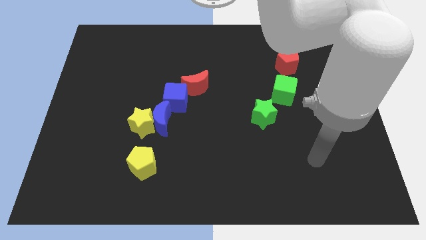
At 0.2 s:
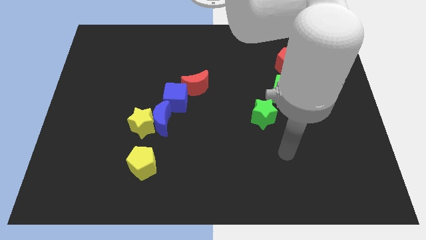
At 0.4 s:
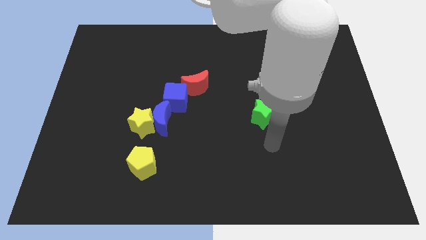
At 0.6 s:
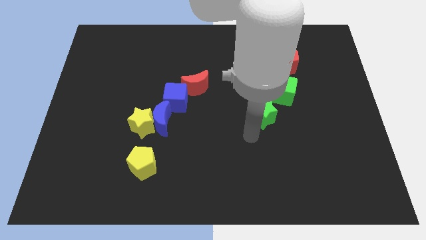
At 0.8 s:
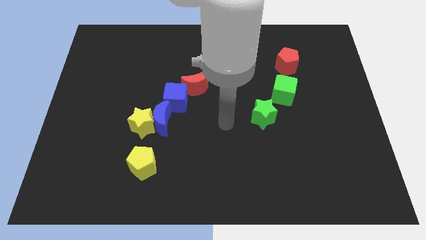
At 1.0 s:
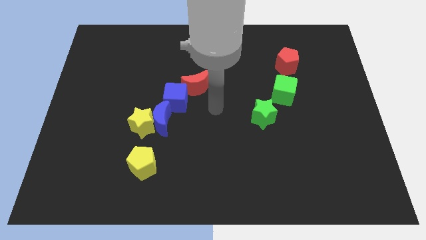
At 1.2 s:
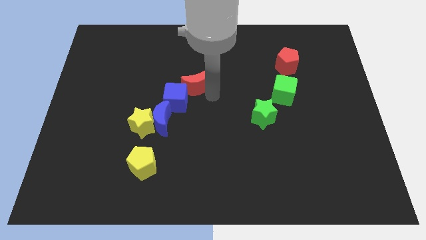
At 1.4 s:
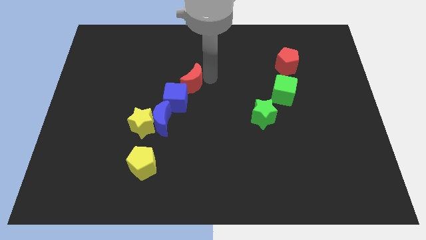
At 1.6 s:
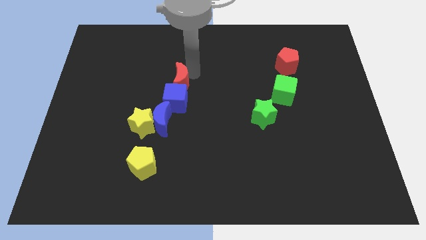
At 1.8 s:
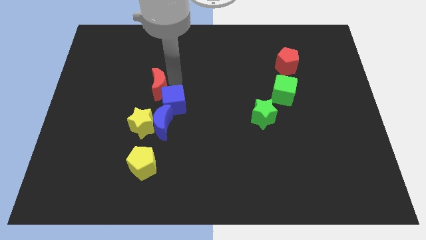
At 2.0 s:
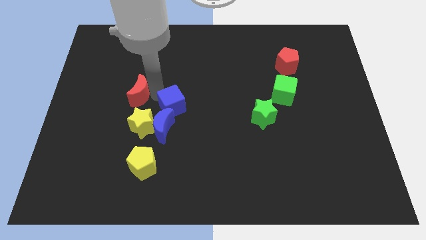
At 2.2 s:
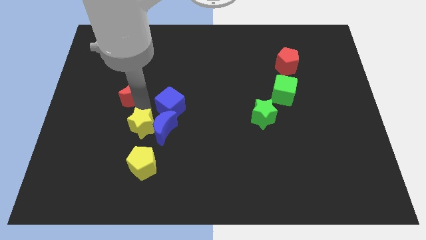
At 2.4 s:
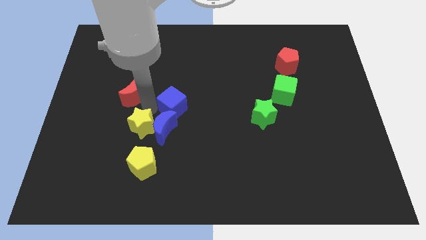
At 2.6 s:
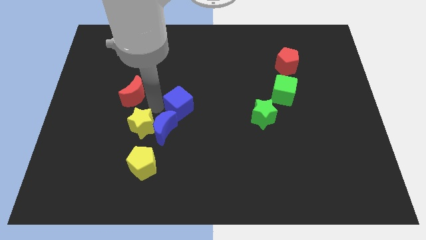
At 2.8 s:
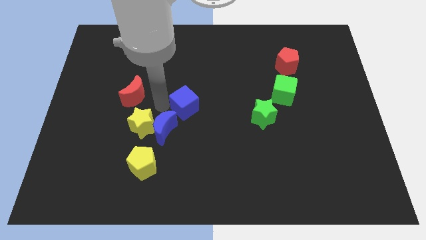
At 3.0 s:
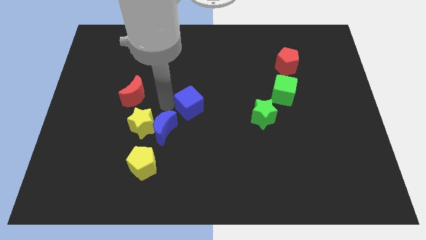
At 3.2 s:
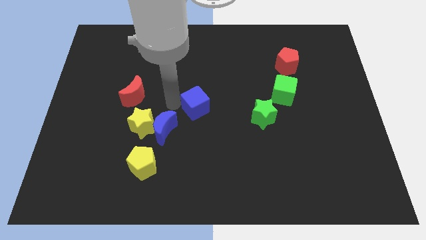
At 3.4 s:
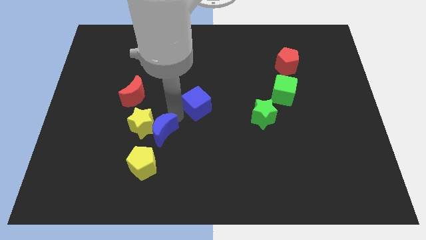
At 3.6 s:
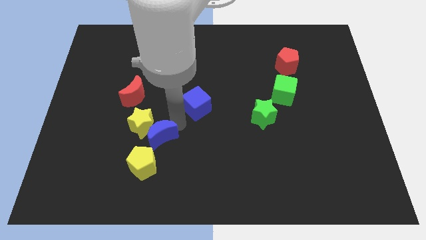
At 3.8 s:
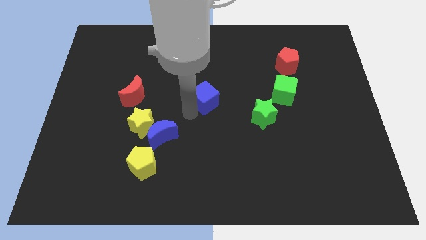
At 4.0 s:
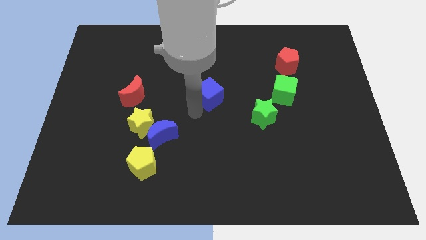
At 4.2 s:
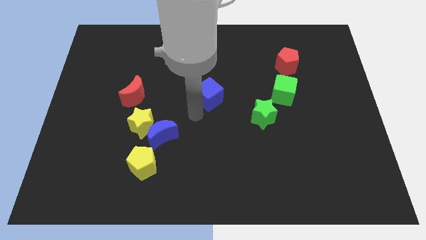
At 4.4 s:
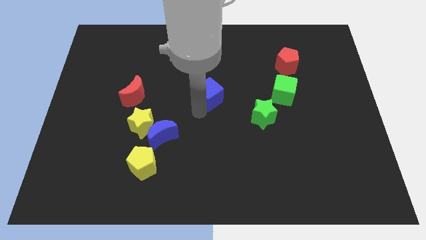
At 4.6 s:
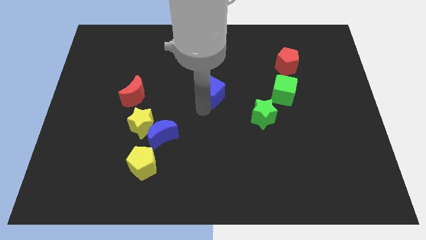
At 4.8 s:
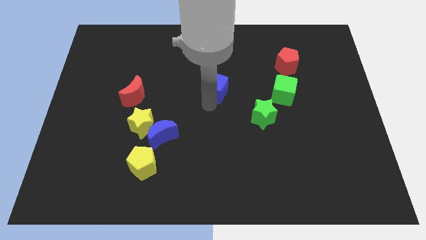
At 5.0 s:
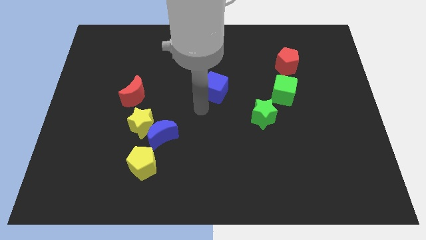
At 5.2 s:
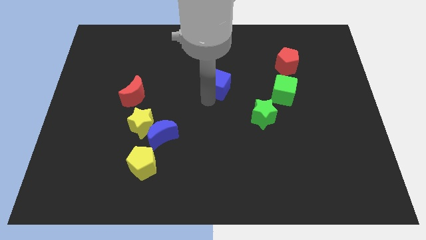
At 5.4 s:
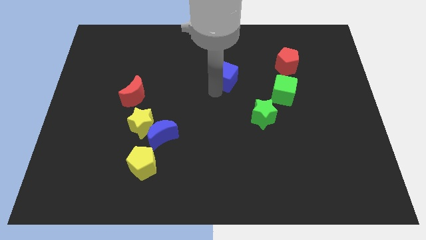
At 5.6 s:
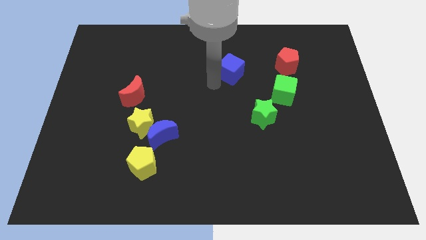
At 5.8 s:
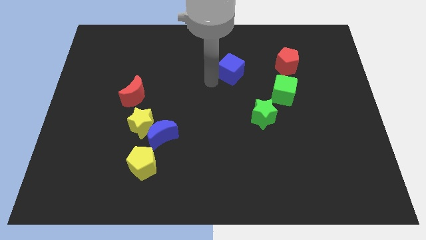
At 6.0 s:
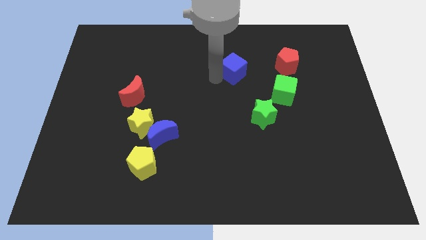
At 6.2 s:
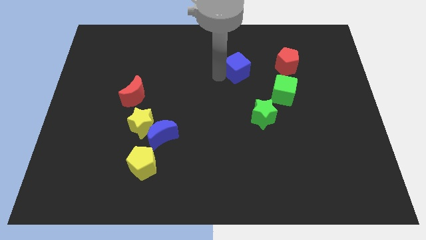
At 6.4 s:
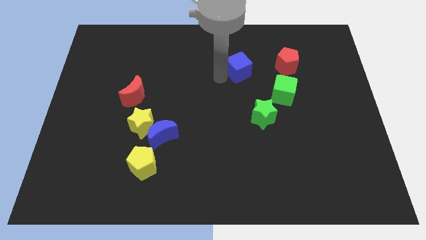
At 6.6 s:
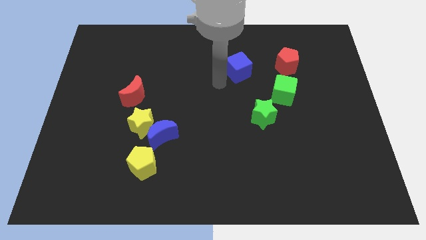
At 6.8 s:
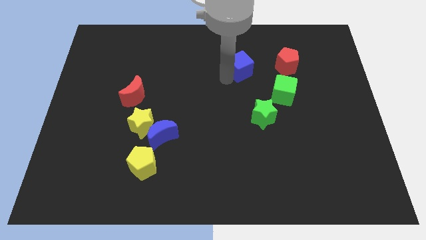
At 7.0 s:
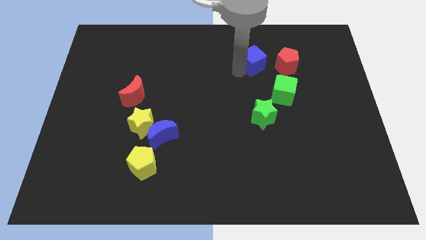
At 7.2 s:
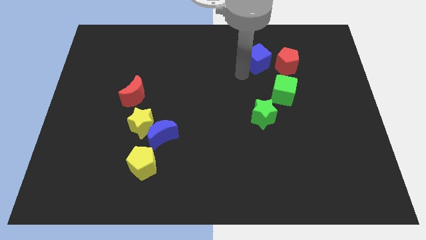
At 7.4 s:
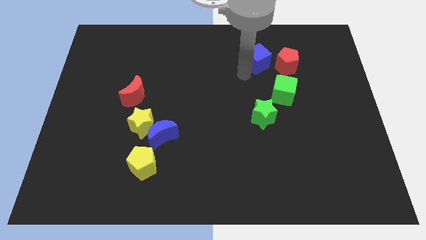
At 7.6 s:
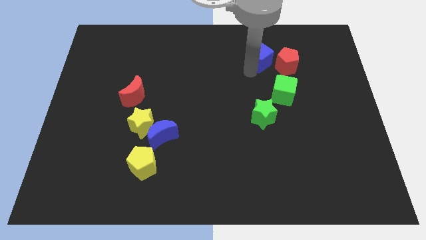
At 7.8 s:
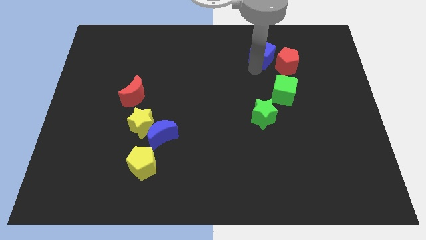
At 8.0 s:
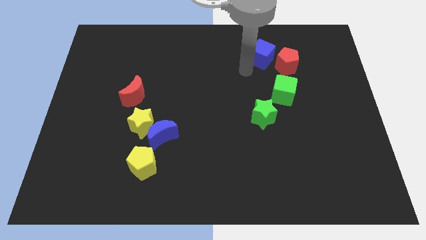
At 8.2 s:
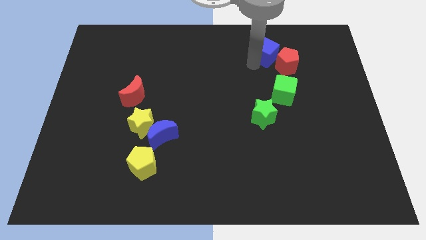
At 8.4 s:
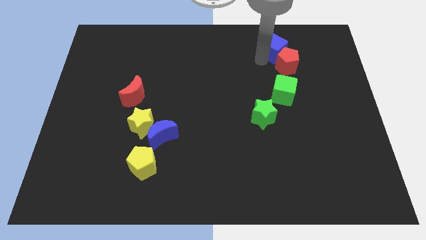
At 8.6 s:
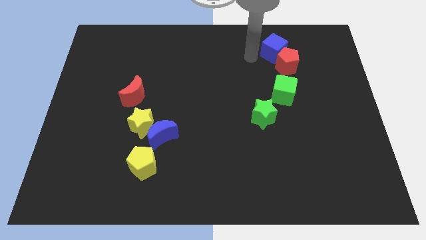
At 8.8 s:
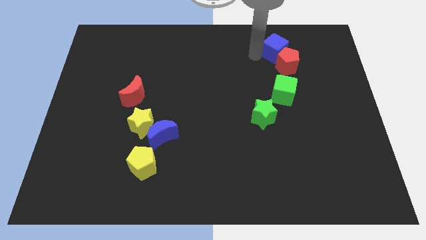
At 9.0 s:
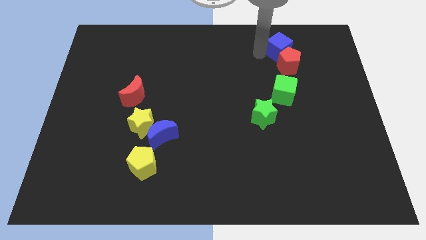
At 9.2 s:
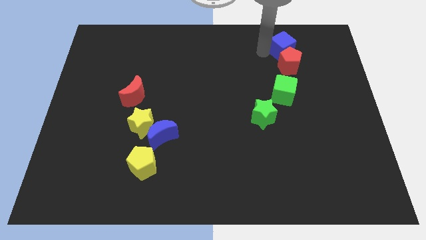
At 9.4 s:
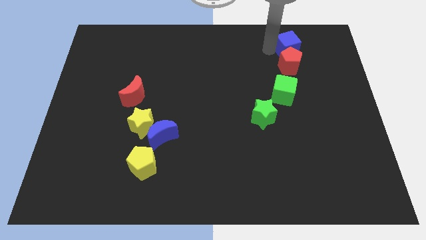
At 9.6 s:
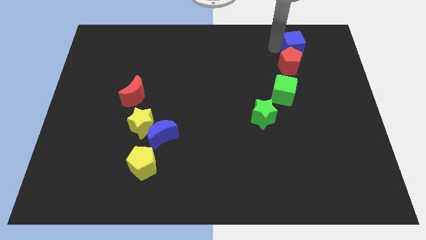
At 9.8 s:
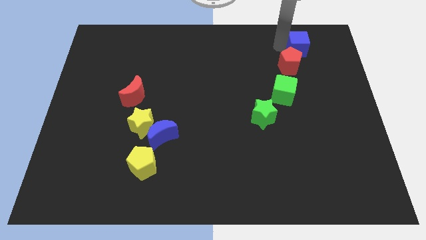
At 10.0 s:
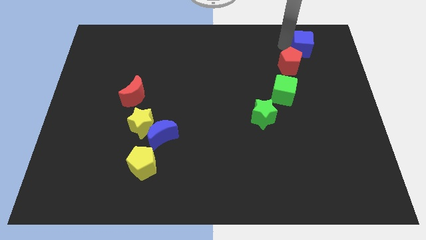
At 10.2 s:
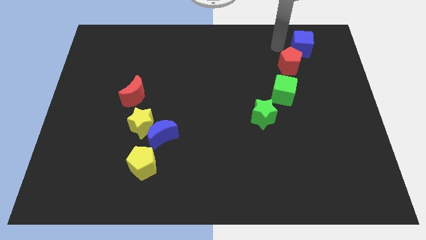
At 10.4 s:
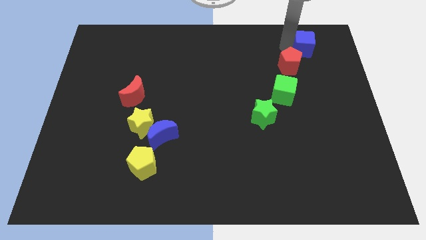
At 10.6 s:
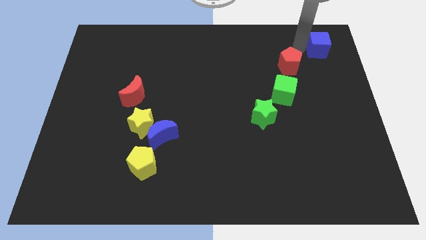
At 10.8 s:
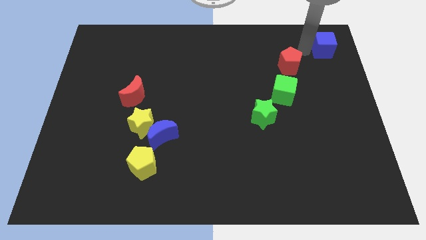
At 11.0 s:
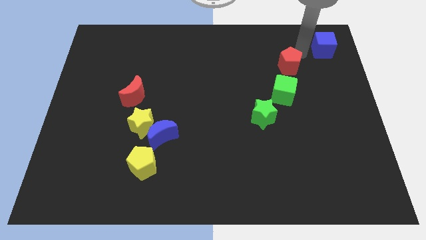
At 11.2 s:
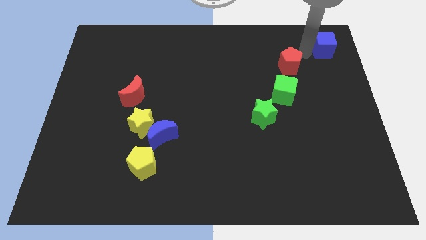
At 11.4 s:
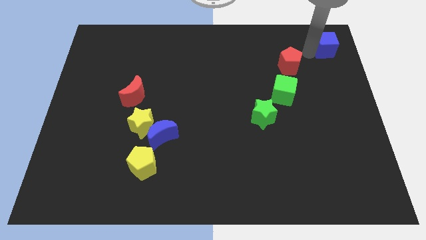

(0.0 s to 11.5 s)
push the blue cube to the top right of the board

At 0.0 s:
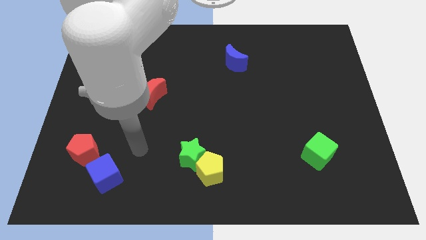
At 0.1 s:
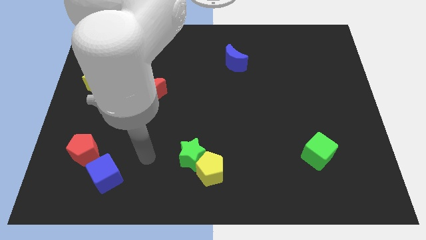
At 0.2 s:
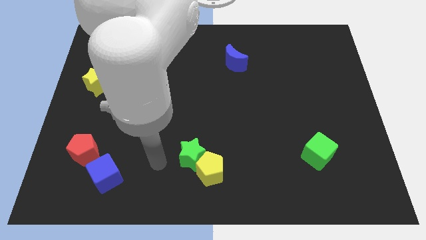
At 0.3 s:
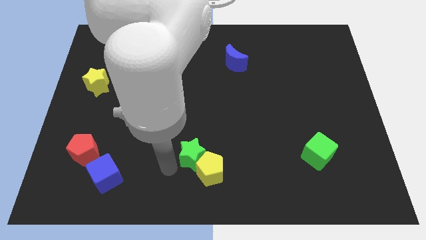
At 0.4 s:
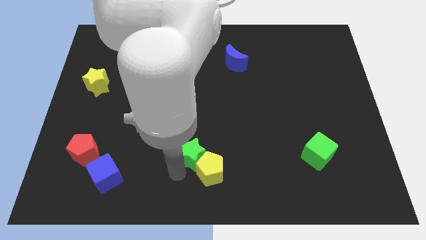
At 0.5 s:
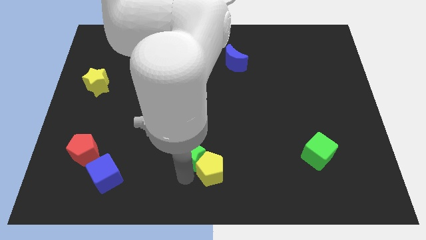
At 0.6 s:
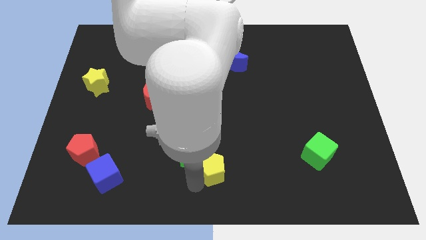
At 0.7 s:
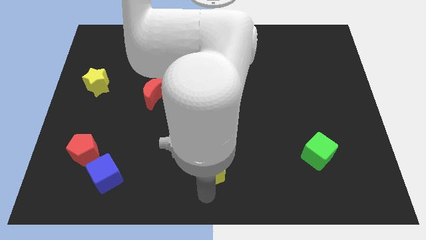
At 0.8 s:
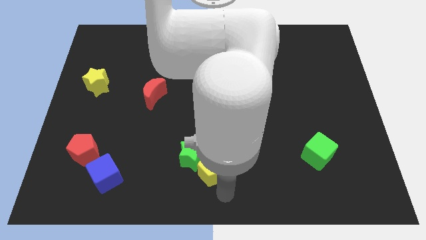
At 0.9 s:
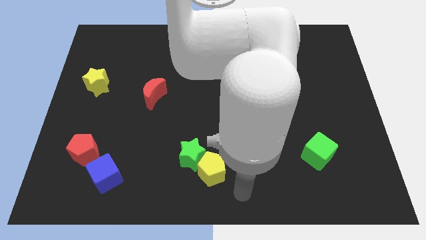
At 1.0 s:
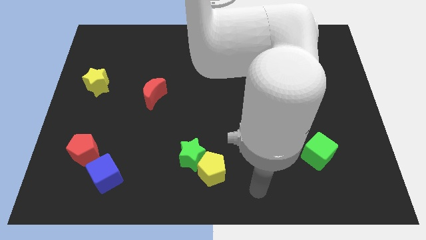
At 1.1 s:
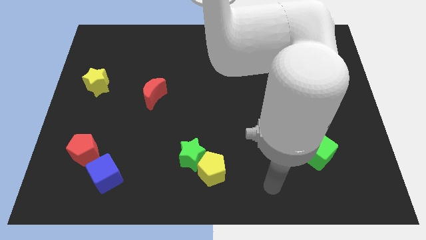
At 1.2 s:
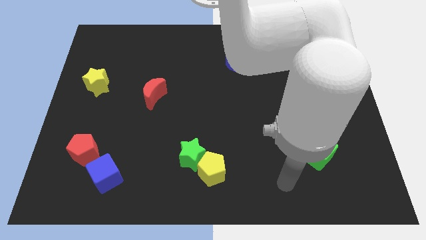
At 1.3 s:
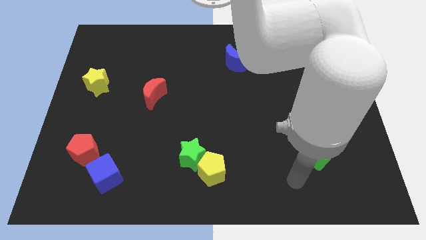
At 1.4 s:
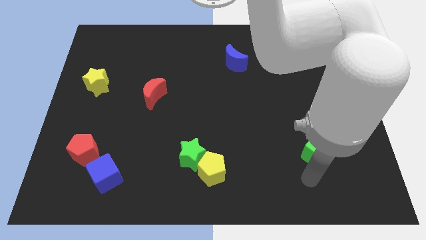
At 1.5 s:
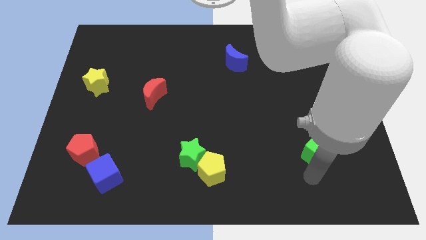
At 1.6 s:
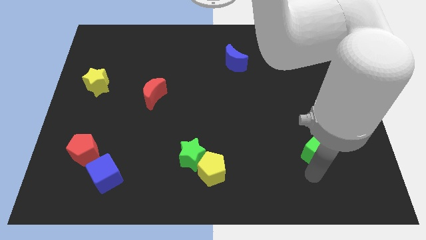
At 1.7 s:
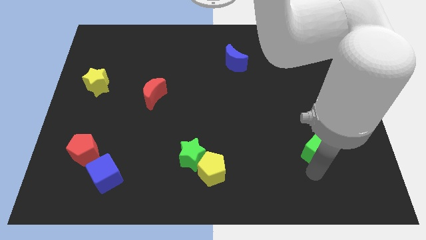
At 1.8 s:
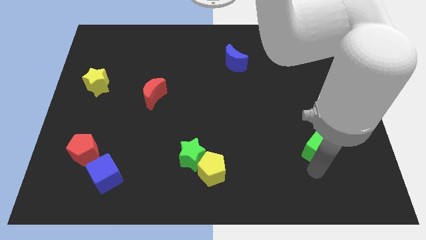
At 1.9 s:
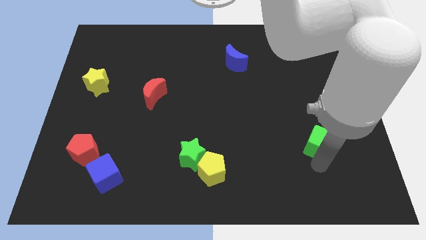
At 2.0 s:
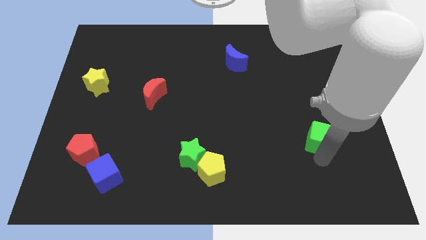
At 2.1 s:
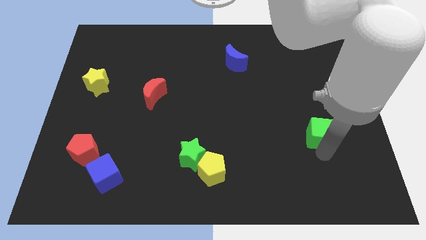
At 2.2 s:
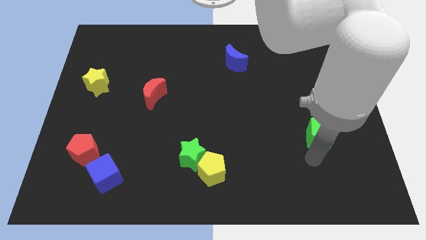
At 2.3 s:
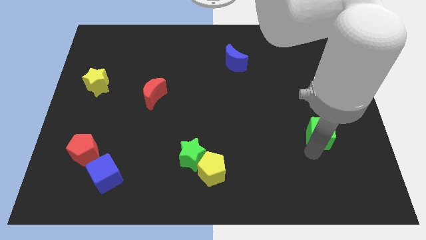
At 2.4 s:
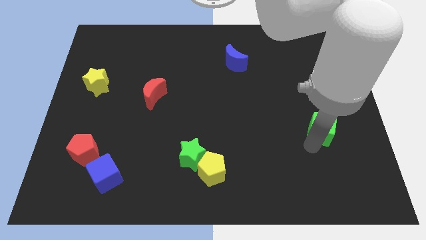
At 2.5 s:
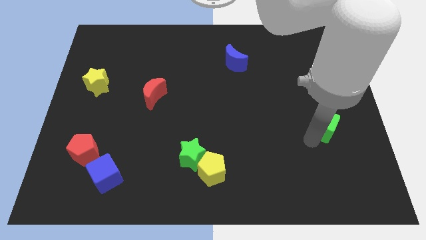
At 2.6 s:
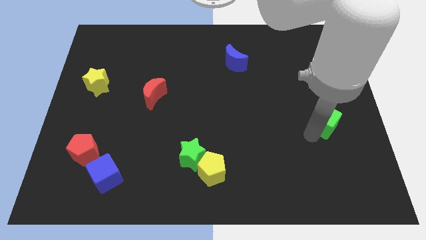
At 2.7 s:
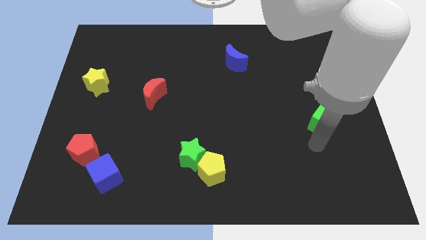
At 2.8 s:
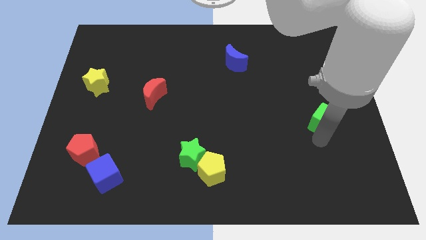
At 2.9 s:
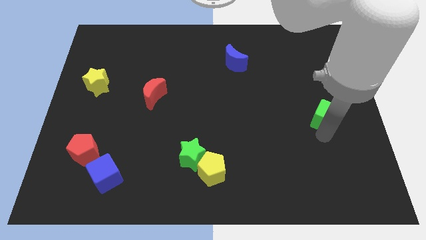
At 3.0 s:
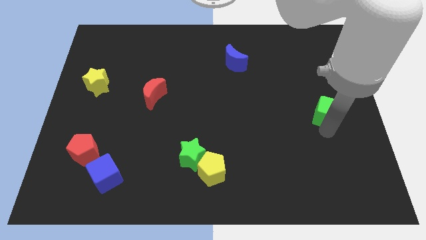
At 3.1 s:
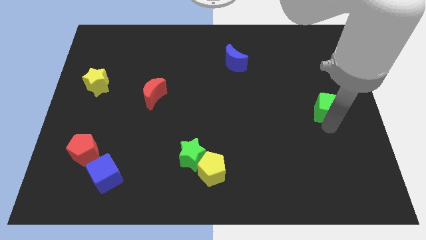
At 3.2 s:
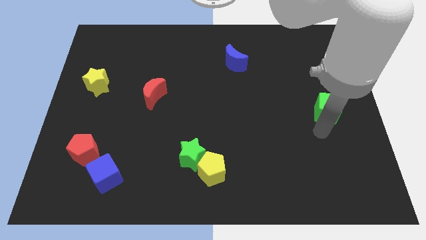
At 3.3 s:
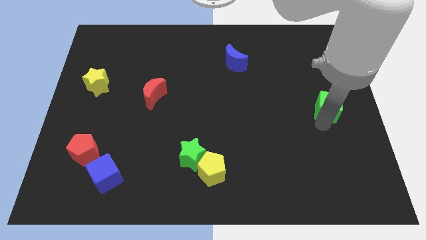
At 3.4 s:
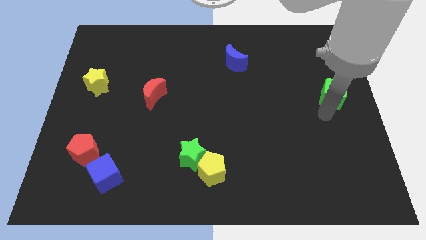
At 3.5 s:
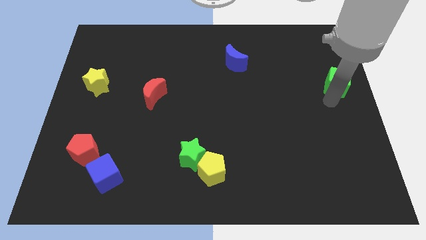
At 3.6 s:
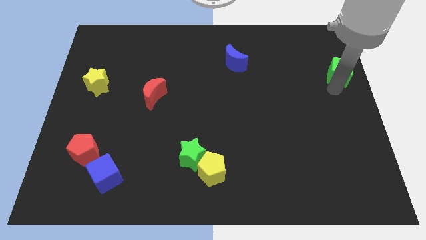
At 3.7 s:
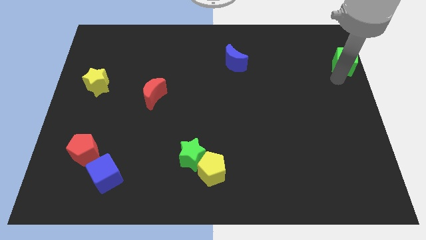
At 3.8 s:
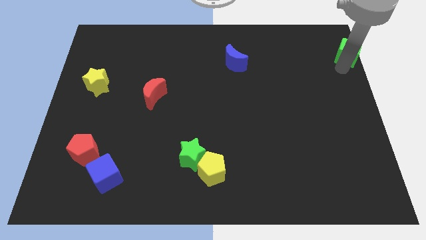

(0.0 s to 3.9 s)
push the green cube to the top right of the board
